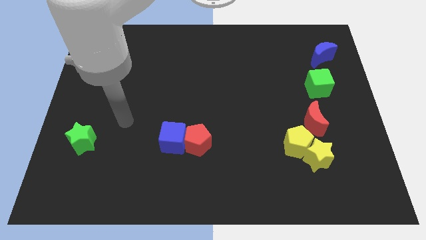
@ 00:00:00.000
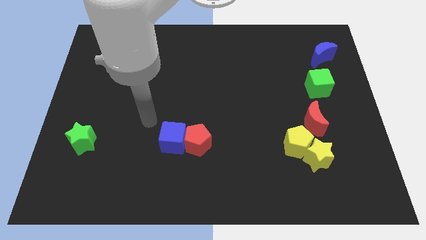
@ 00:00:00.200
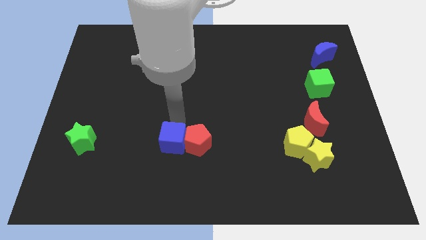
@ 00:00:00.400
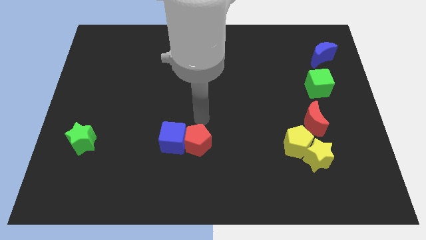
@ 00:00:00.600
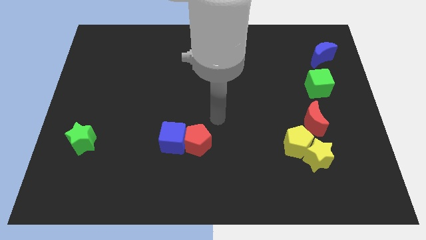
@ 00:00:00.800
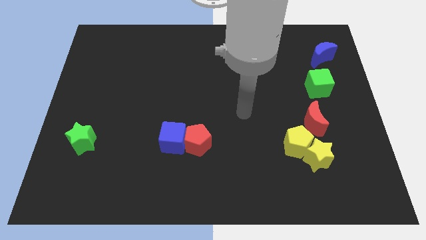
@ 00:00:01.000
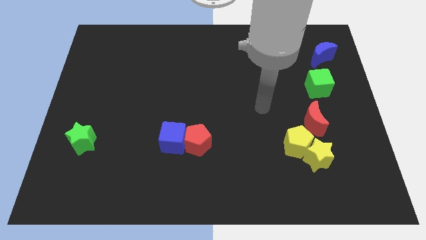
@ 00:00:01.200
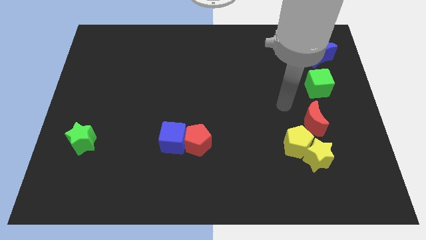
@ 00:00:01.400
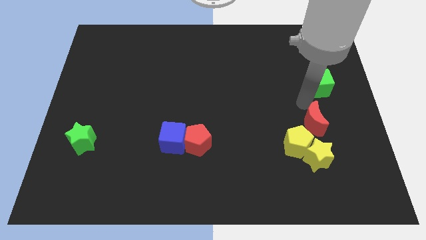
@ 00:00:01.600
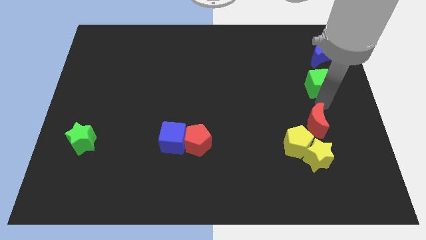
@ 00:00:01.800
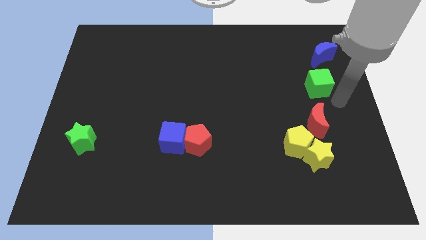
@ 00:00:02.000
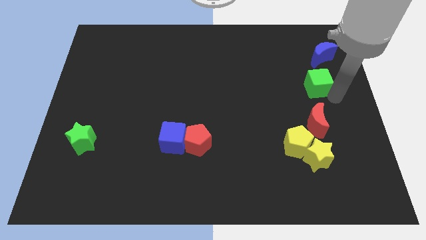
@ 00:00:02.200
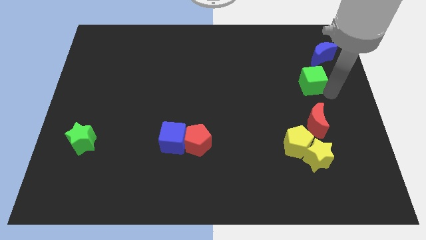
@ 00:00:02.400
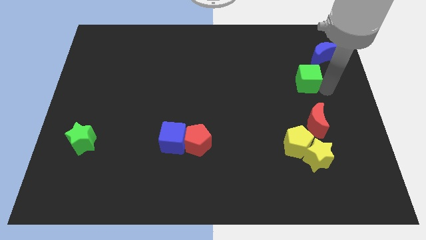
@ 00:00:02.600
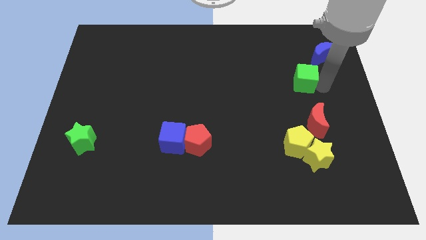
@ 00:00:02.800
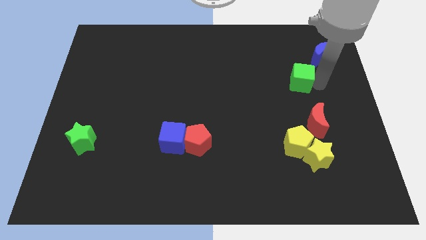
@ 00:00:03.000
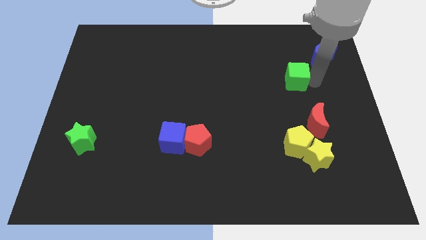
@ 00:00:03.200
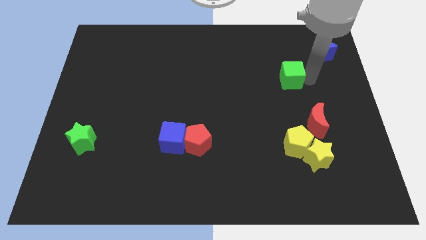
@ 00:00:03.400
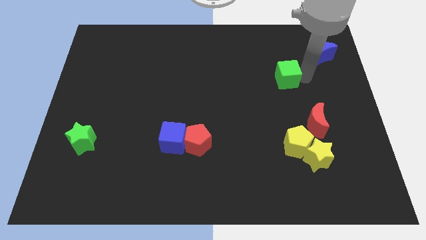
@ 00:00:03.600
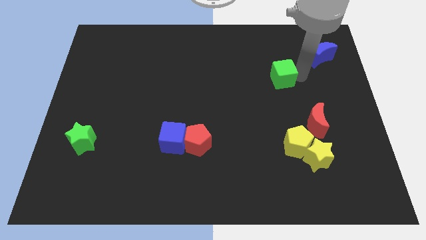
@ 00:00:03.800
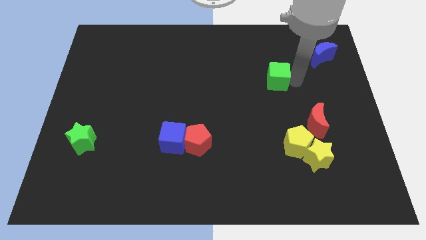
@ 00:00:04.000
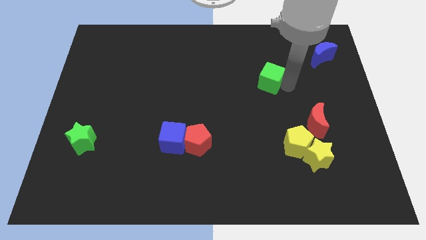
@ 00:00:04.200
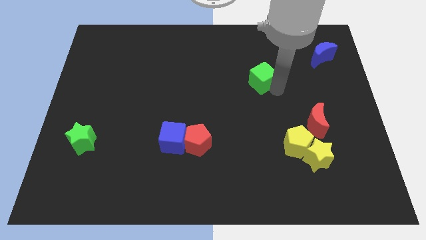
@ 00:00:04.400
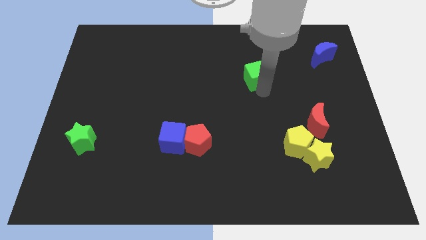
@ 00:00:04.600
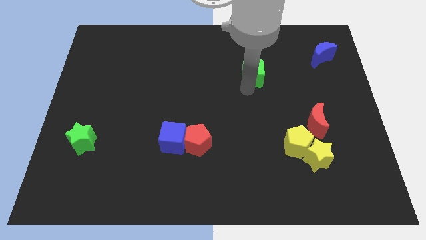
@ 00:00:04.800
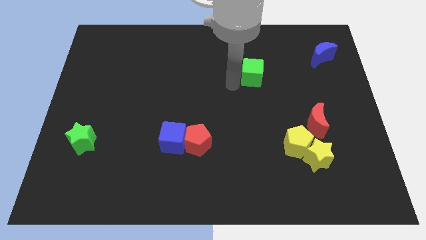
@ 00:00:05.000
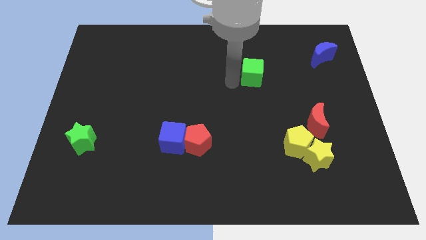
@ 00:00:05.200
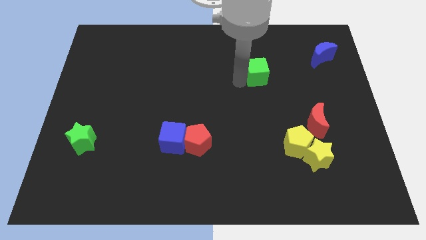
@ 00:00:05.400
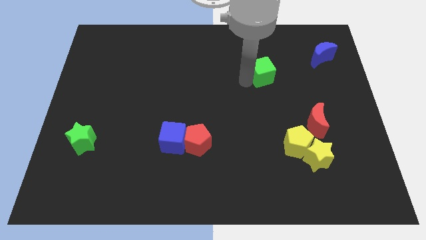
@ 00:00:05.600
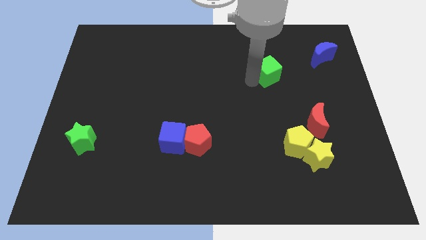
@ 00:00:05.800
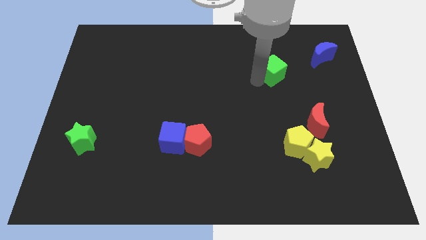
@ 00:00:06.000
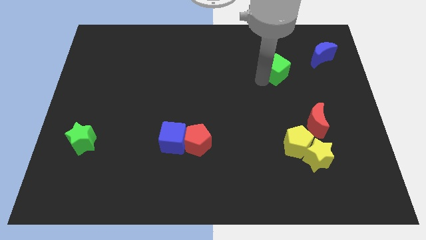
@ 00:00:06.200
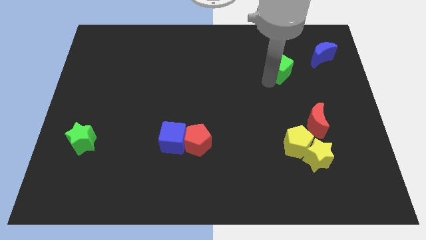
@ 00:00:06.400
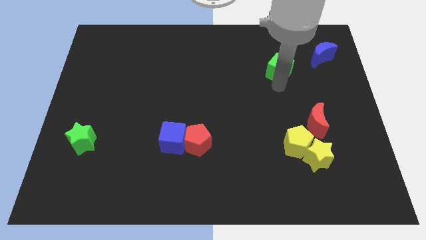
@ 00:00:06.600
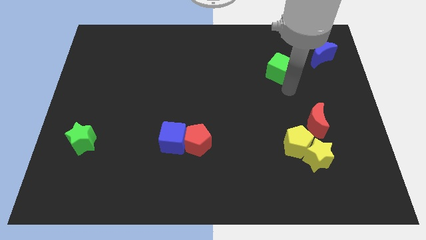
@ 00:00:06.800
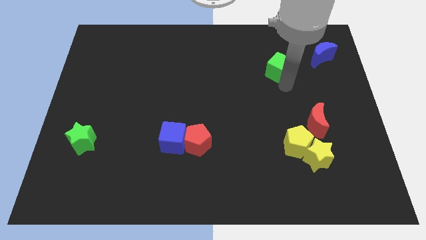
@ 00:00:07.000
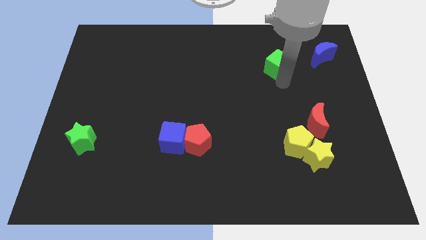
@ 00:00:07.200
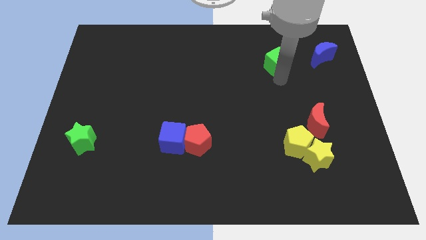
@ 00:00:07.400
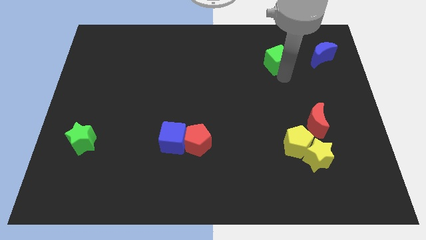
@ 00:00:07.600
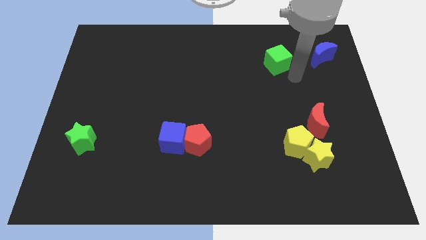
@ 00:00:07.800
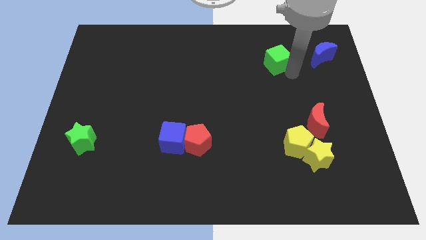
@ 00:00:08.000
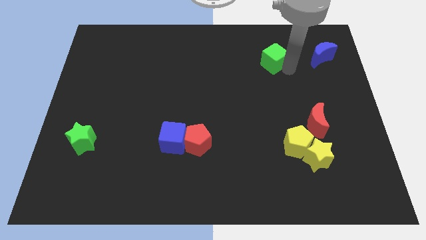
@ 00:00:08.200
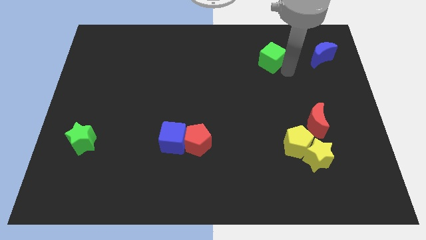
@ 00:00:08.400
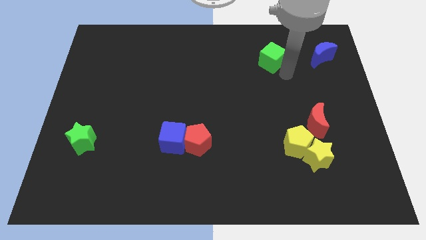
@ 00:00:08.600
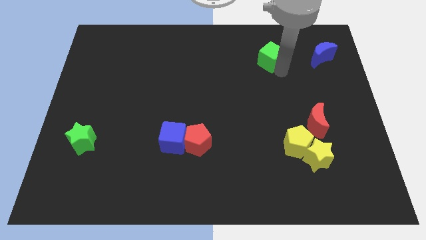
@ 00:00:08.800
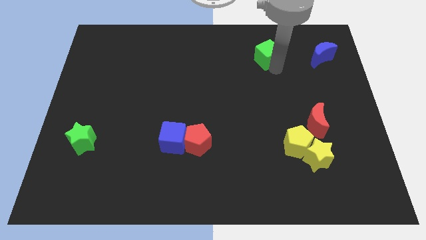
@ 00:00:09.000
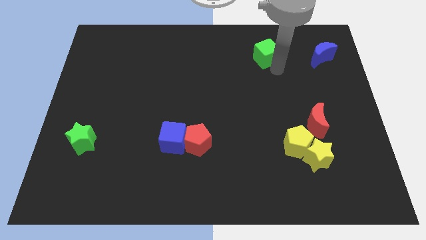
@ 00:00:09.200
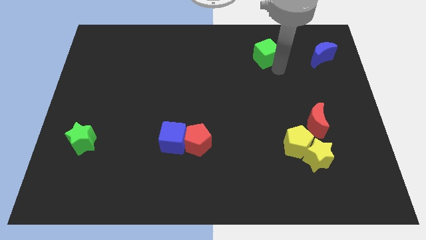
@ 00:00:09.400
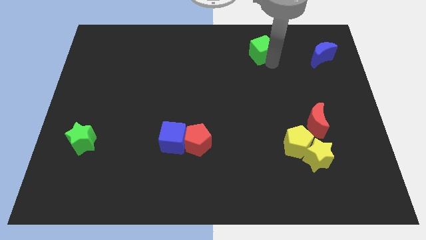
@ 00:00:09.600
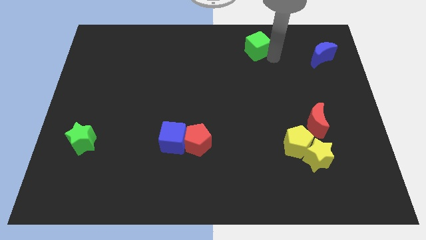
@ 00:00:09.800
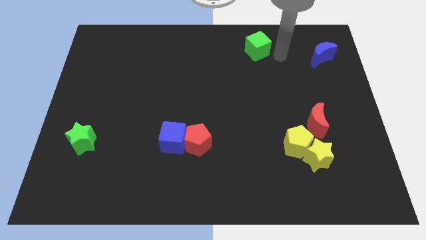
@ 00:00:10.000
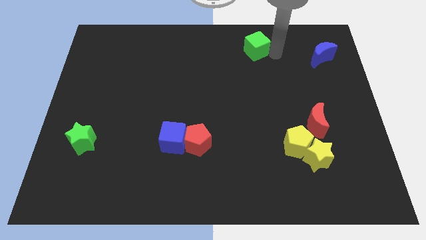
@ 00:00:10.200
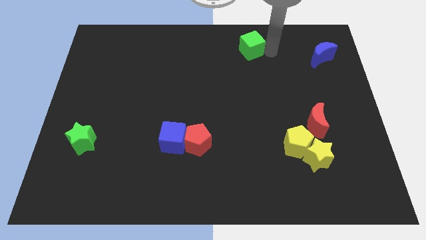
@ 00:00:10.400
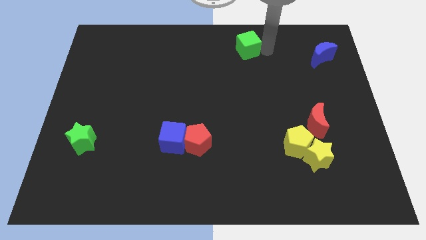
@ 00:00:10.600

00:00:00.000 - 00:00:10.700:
put the green cube to the towards your base

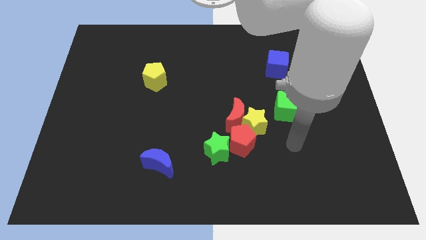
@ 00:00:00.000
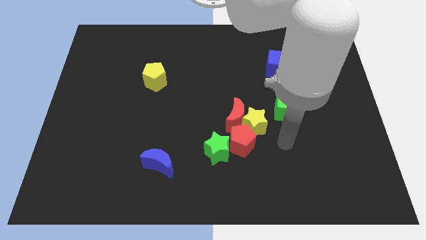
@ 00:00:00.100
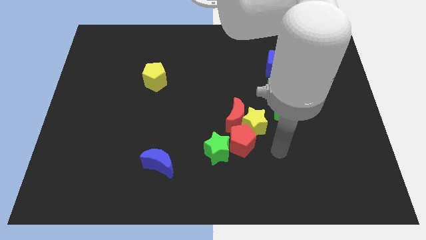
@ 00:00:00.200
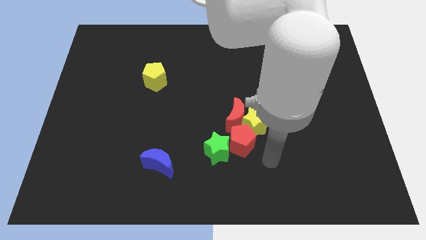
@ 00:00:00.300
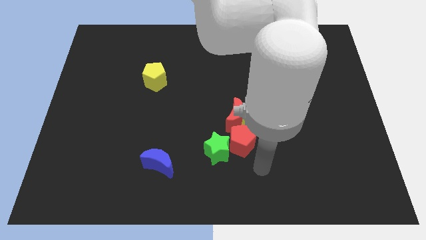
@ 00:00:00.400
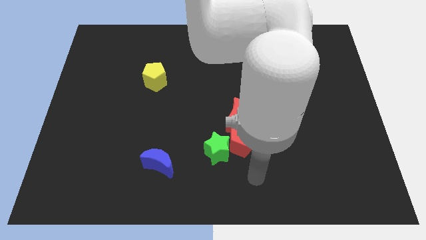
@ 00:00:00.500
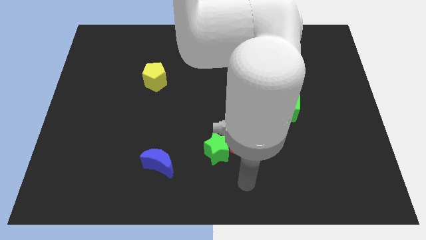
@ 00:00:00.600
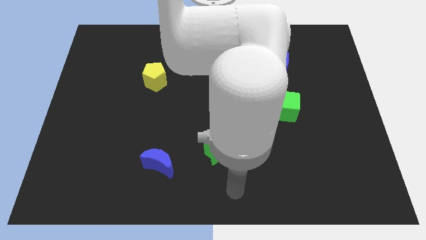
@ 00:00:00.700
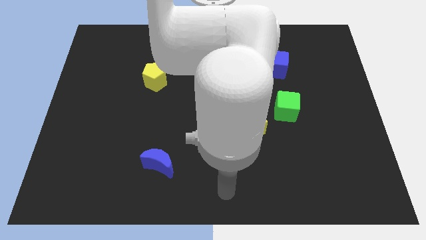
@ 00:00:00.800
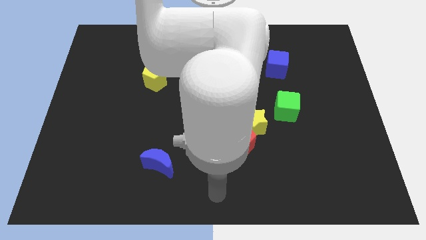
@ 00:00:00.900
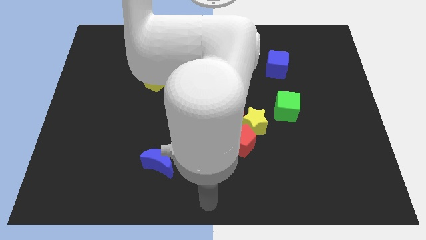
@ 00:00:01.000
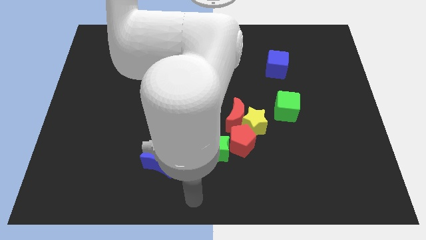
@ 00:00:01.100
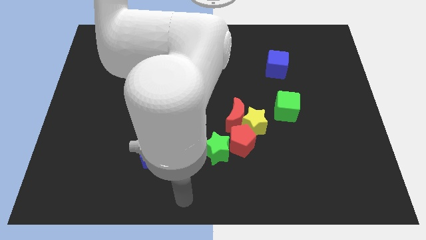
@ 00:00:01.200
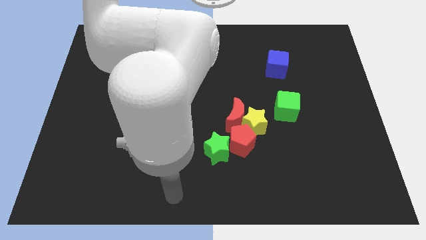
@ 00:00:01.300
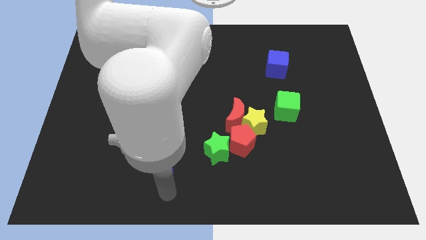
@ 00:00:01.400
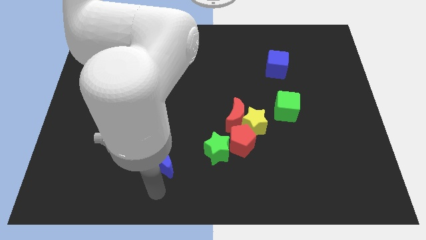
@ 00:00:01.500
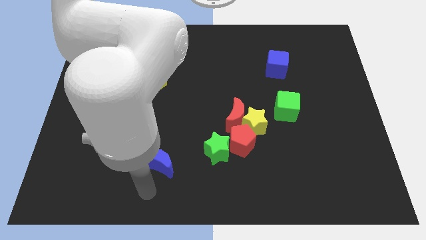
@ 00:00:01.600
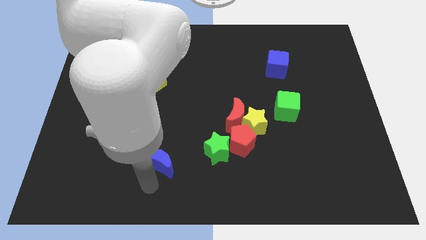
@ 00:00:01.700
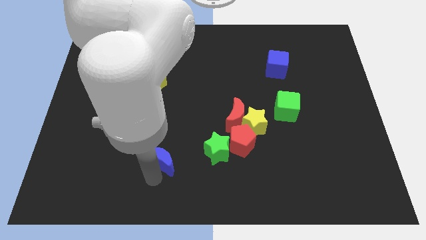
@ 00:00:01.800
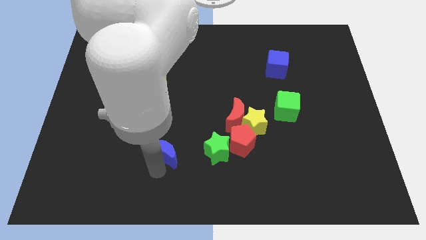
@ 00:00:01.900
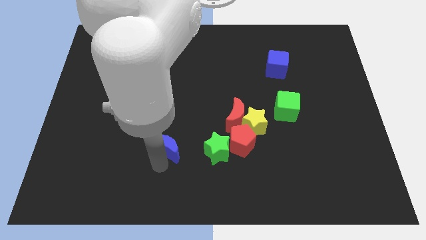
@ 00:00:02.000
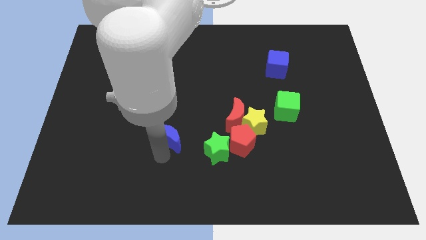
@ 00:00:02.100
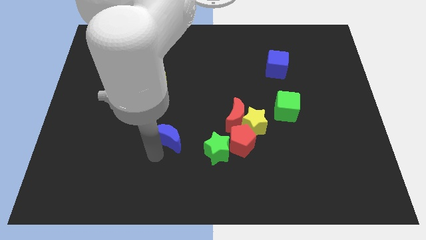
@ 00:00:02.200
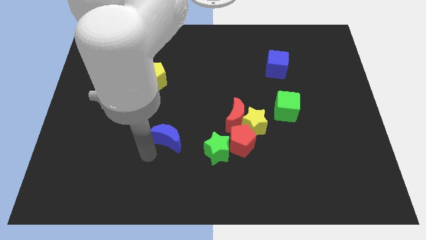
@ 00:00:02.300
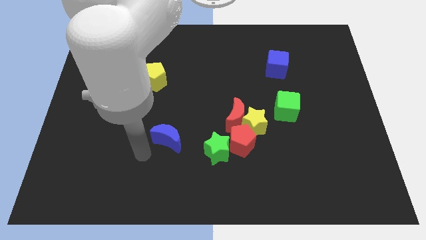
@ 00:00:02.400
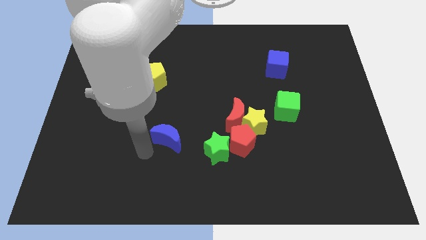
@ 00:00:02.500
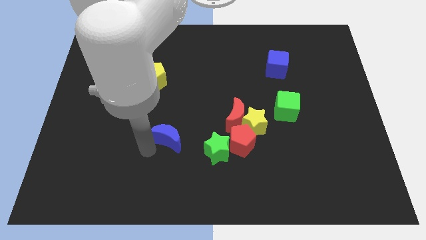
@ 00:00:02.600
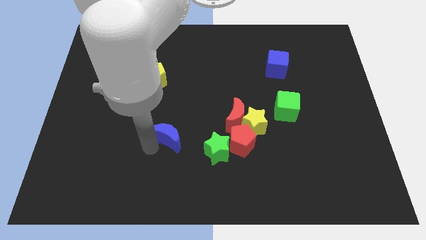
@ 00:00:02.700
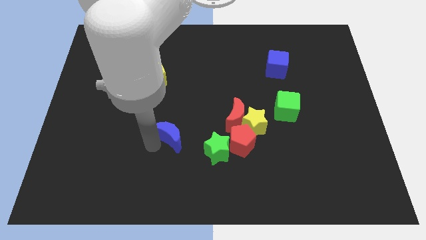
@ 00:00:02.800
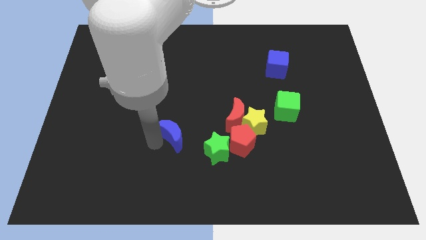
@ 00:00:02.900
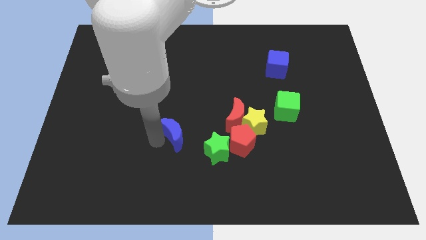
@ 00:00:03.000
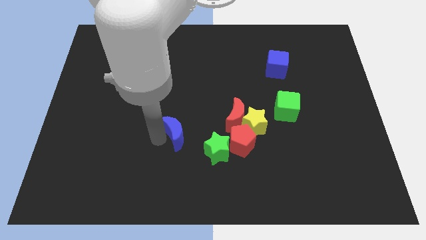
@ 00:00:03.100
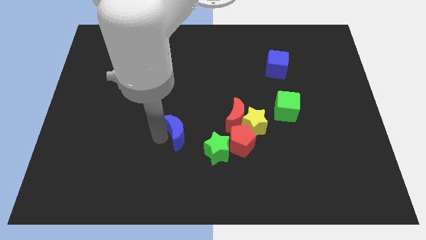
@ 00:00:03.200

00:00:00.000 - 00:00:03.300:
put the blue moon to the center of the board
